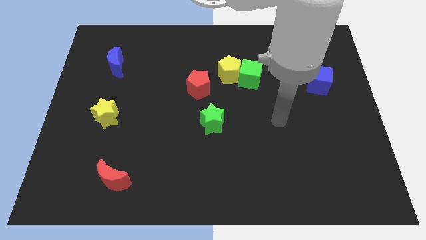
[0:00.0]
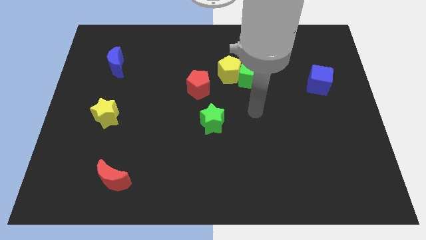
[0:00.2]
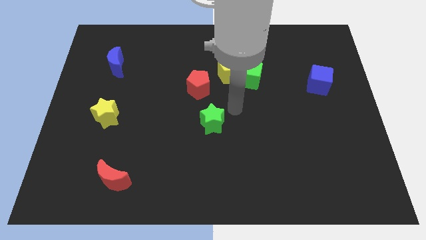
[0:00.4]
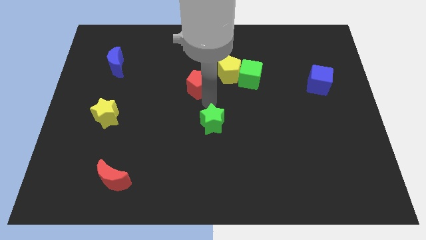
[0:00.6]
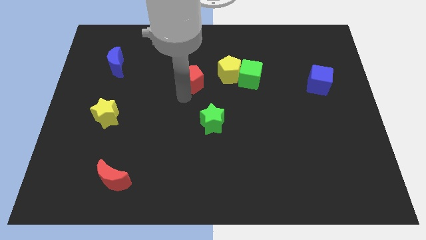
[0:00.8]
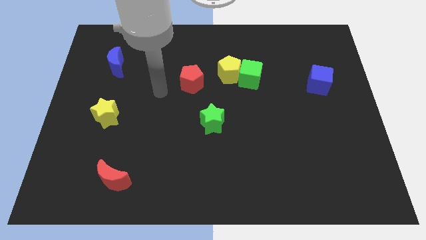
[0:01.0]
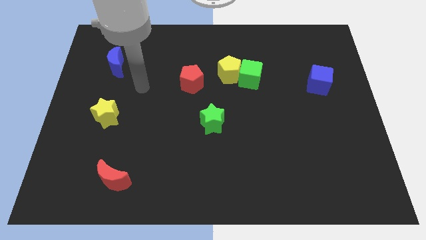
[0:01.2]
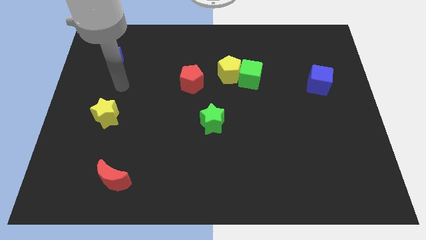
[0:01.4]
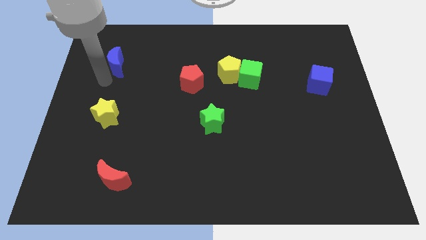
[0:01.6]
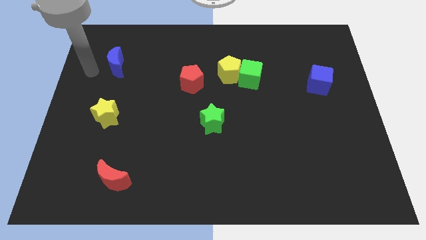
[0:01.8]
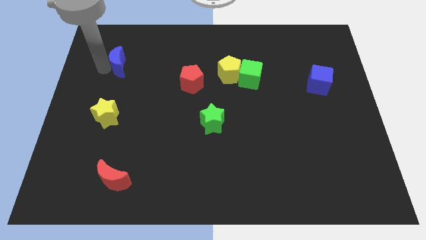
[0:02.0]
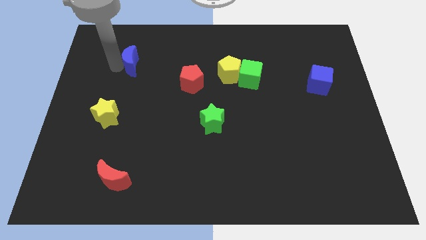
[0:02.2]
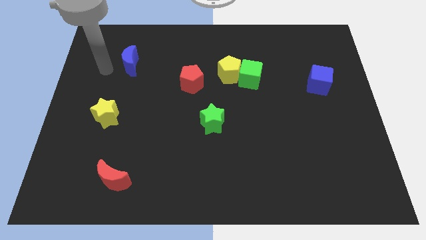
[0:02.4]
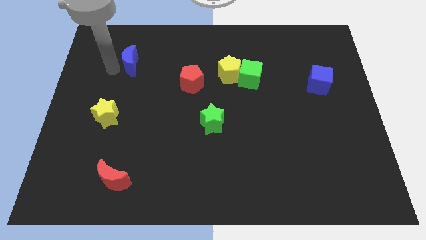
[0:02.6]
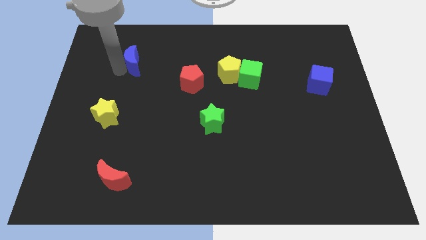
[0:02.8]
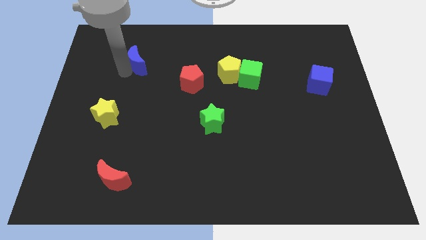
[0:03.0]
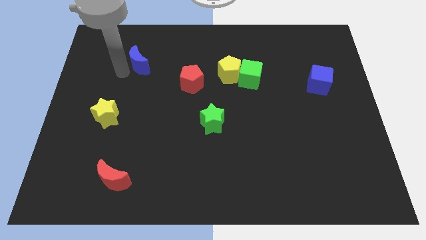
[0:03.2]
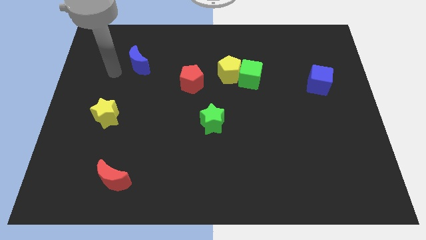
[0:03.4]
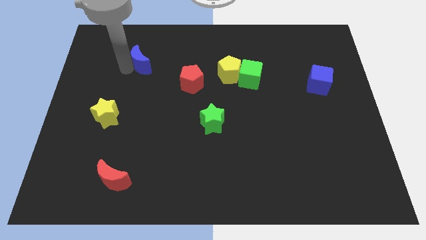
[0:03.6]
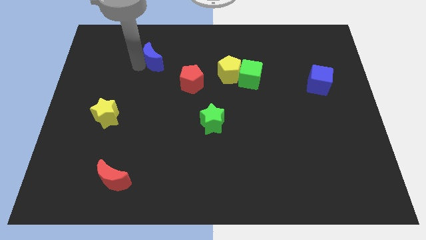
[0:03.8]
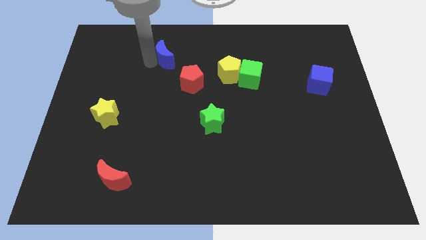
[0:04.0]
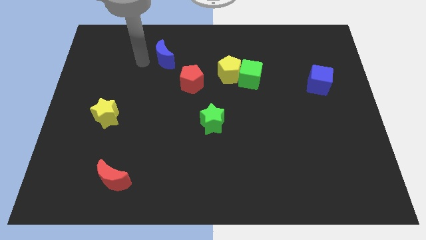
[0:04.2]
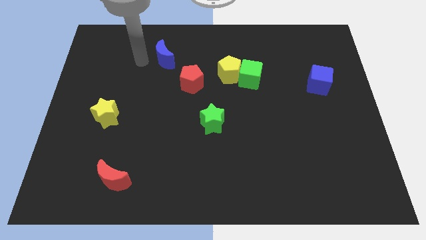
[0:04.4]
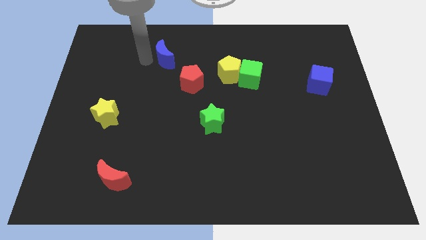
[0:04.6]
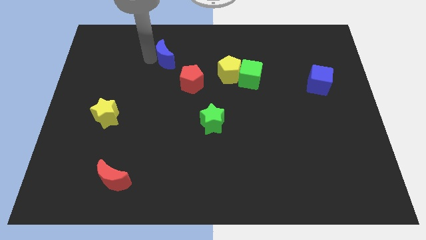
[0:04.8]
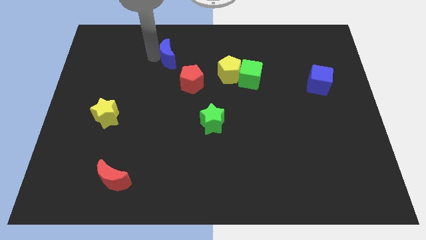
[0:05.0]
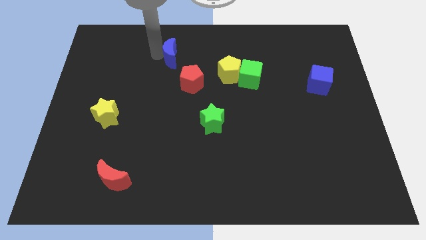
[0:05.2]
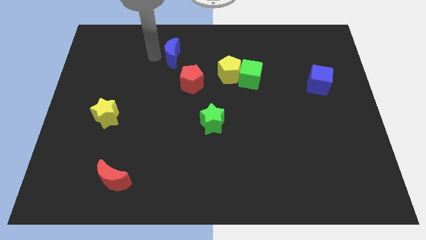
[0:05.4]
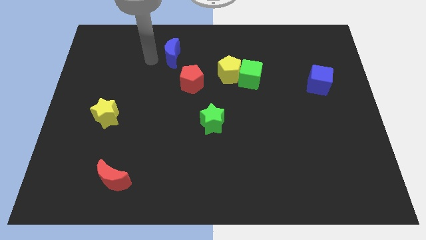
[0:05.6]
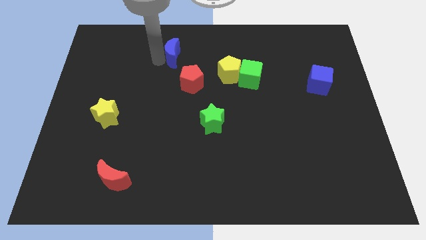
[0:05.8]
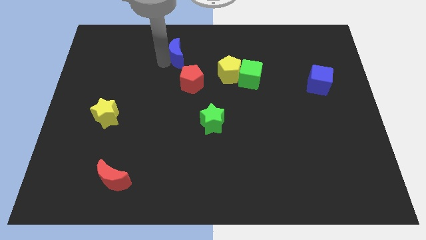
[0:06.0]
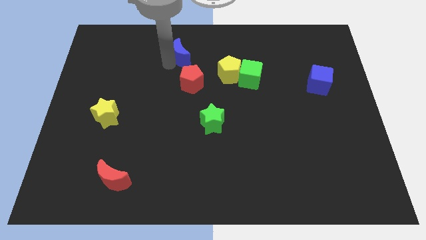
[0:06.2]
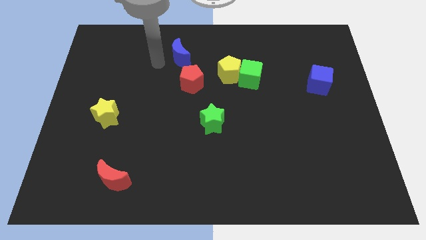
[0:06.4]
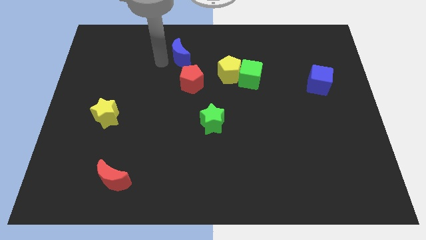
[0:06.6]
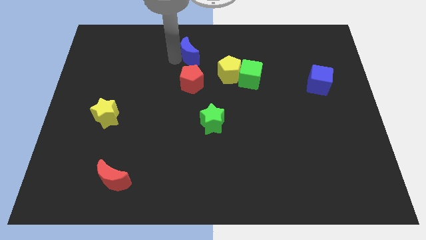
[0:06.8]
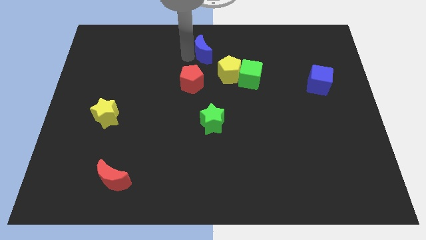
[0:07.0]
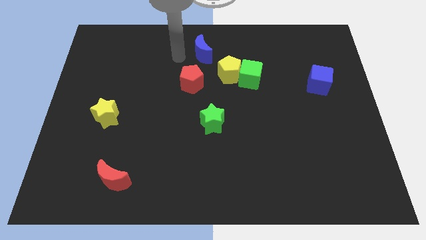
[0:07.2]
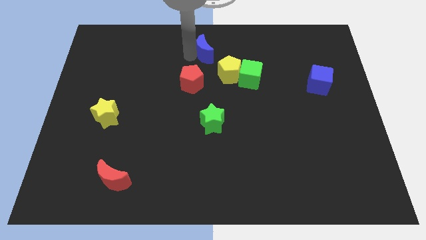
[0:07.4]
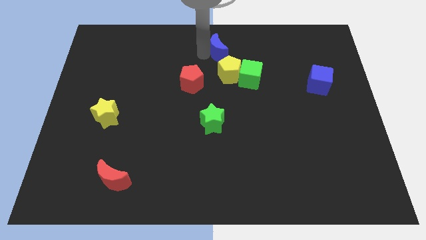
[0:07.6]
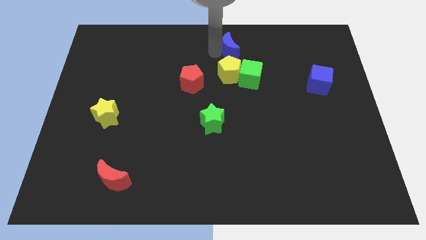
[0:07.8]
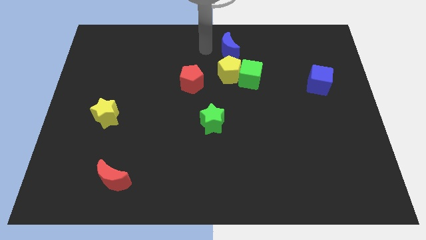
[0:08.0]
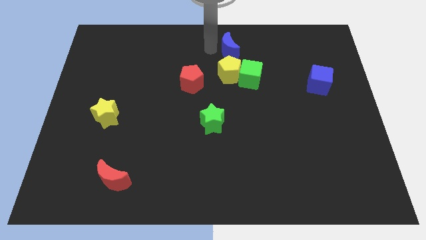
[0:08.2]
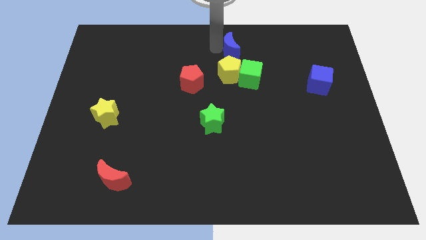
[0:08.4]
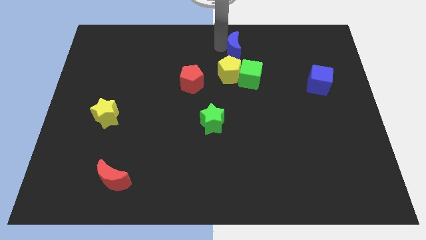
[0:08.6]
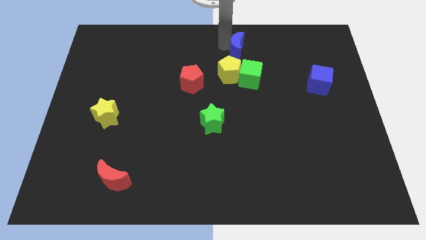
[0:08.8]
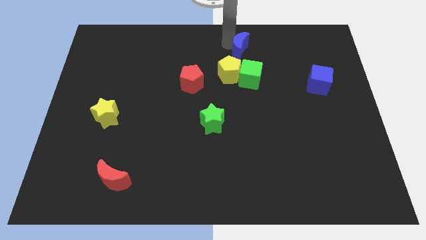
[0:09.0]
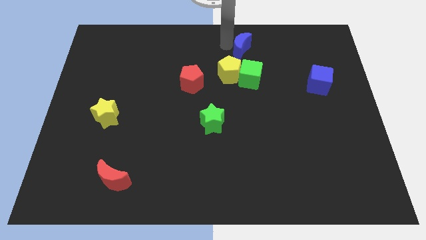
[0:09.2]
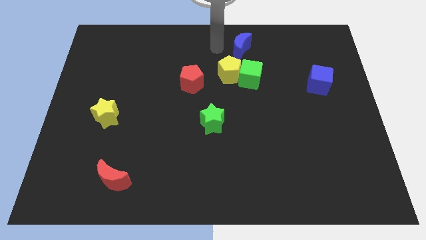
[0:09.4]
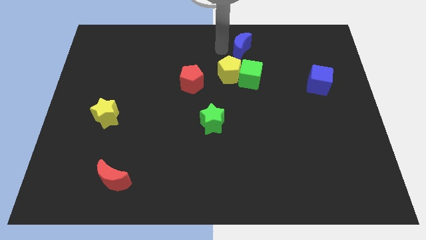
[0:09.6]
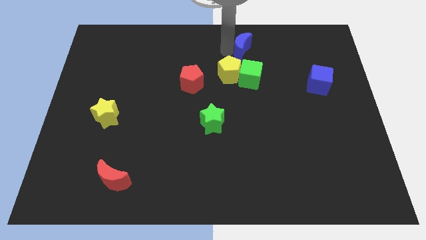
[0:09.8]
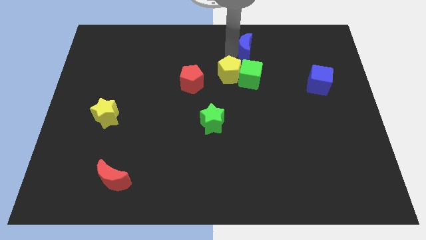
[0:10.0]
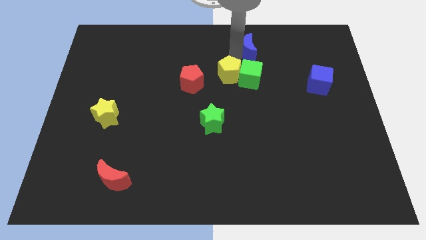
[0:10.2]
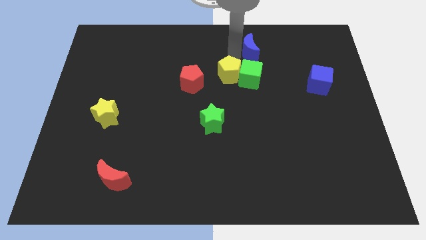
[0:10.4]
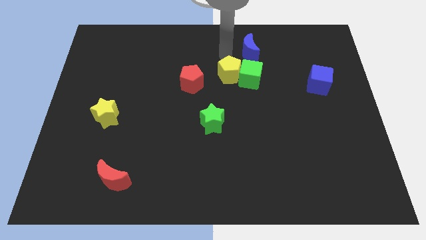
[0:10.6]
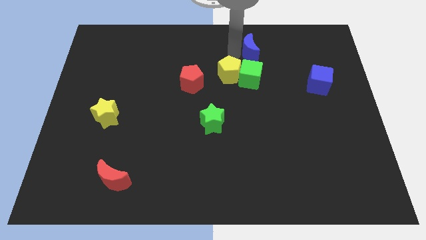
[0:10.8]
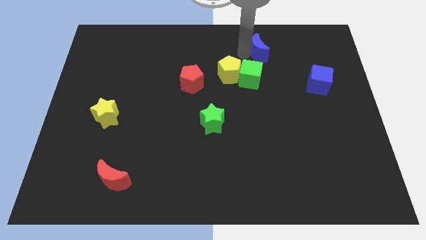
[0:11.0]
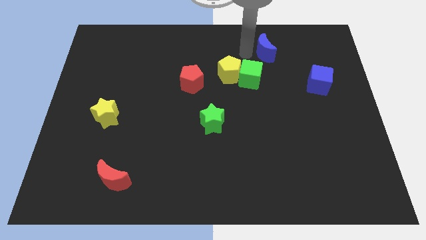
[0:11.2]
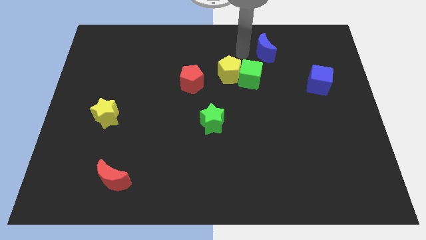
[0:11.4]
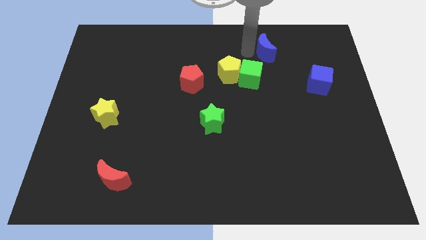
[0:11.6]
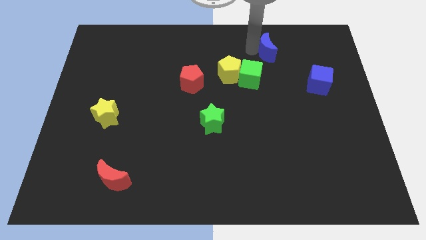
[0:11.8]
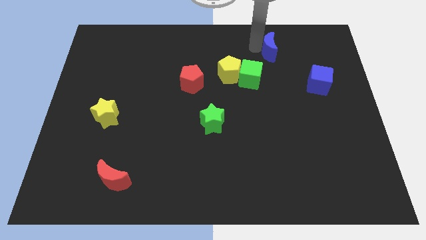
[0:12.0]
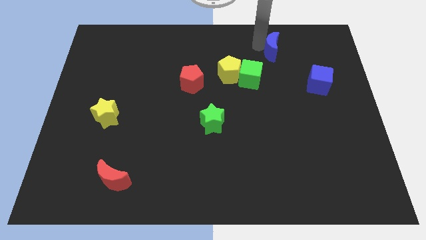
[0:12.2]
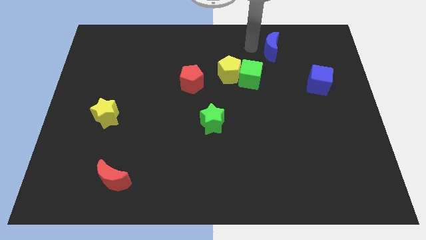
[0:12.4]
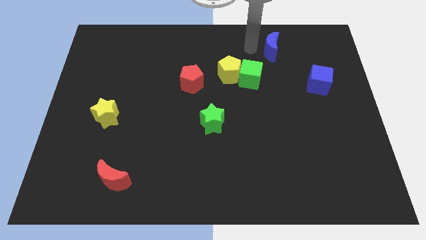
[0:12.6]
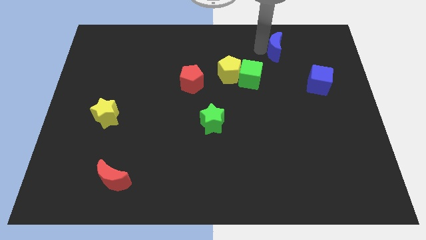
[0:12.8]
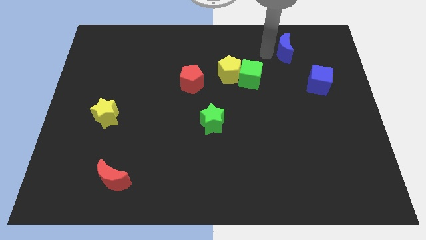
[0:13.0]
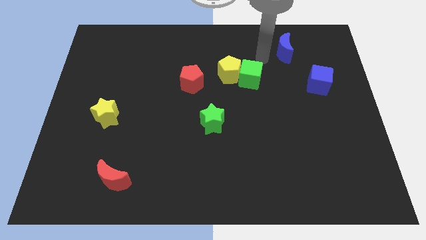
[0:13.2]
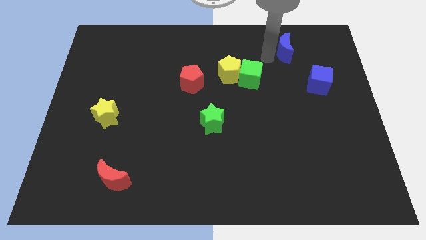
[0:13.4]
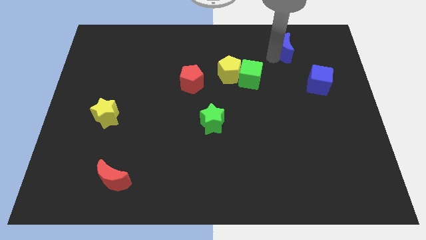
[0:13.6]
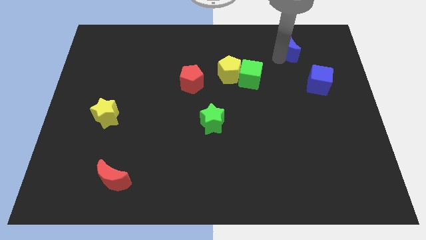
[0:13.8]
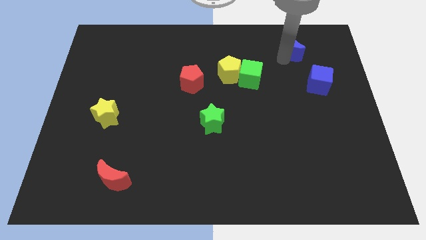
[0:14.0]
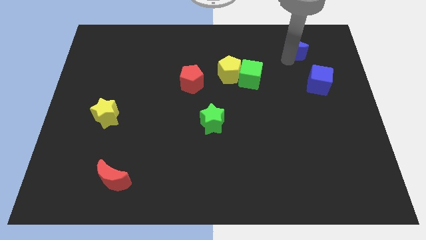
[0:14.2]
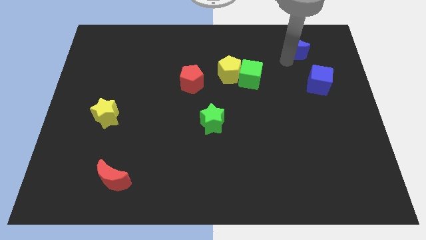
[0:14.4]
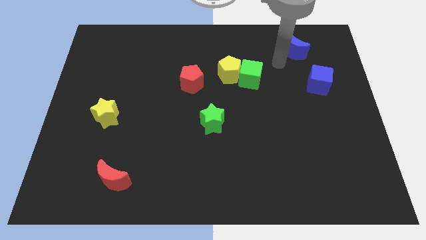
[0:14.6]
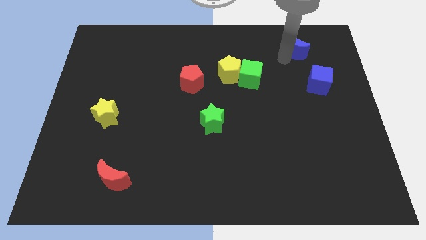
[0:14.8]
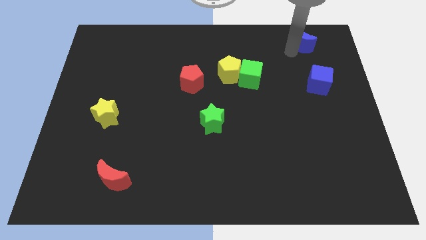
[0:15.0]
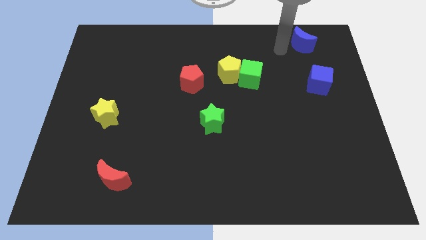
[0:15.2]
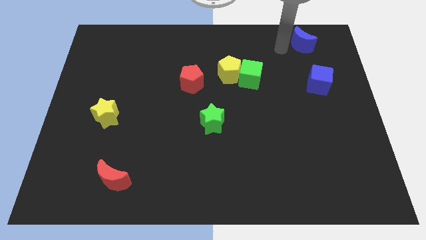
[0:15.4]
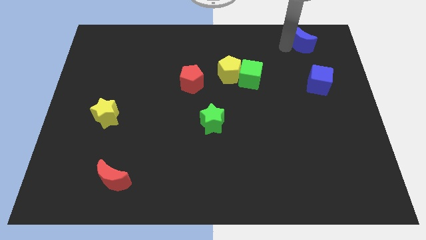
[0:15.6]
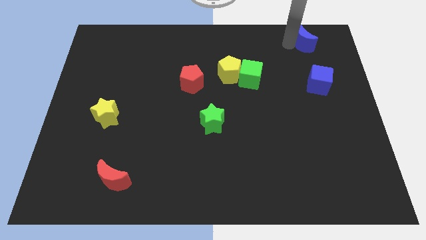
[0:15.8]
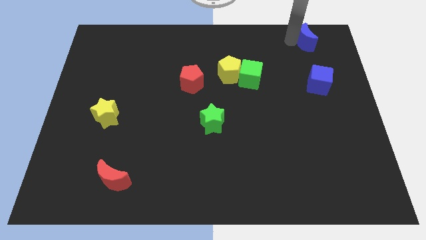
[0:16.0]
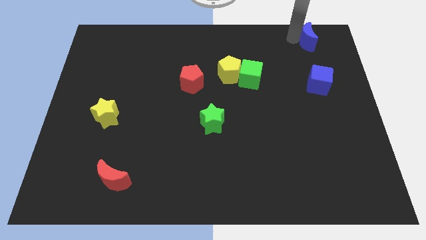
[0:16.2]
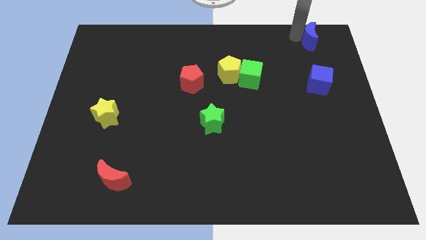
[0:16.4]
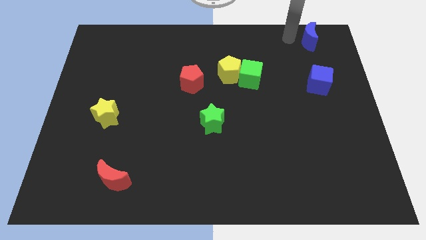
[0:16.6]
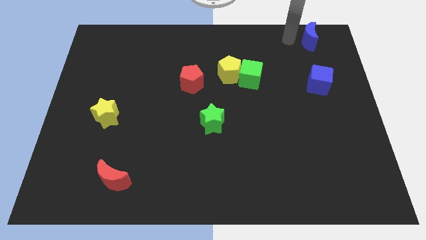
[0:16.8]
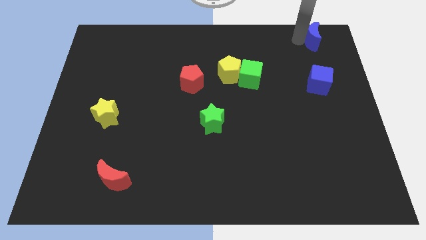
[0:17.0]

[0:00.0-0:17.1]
push the blue moon to the top right
